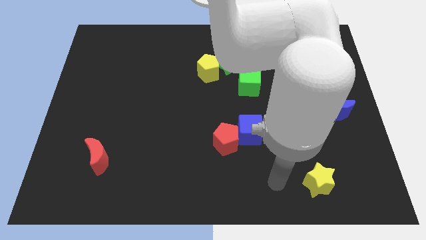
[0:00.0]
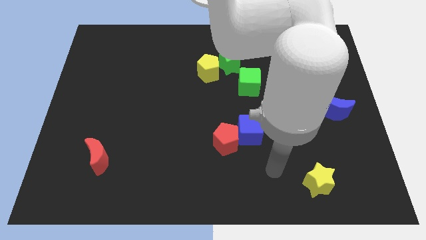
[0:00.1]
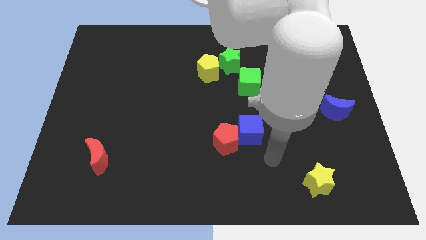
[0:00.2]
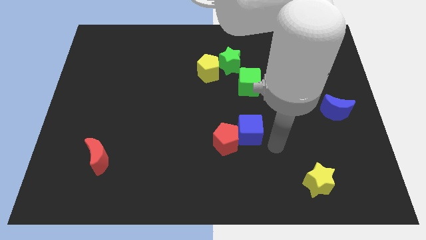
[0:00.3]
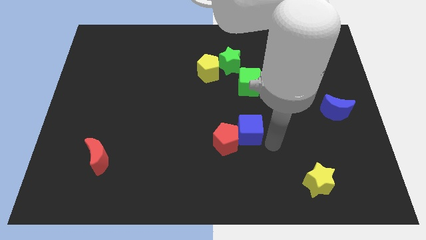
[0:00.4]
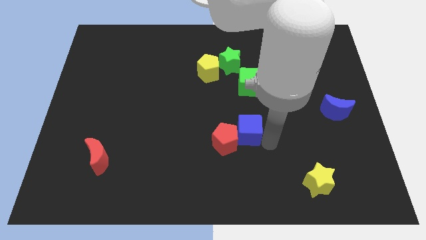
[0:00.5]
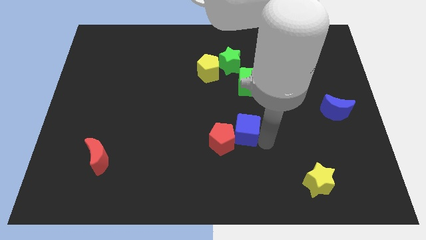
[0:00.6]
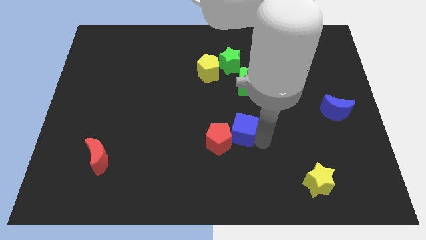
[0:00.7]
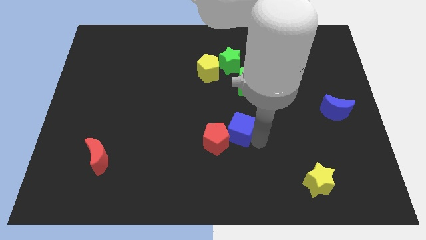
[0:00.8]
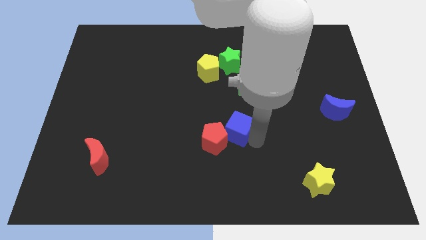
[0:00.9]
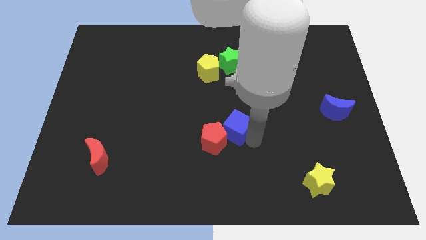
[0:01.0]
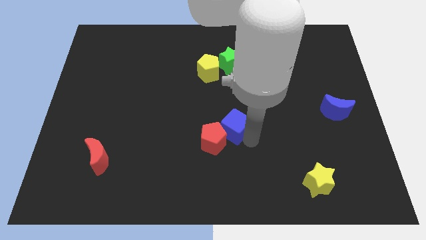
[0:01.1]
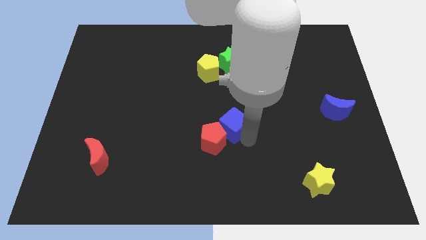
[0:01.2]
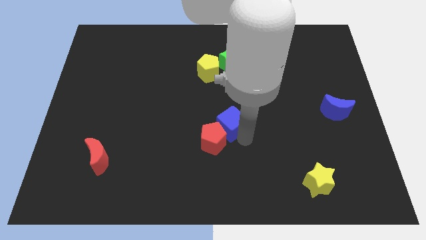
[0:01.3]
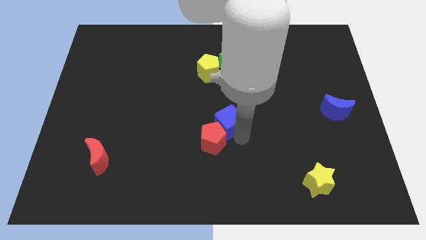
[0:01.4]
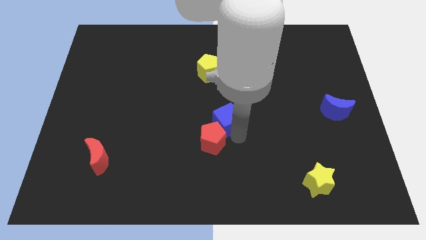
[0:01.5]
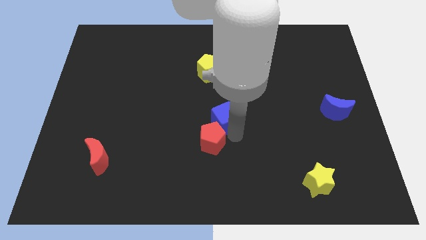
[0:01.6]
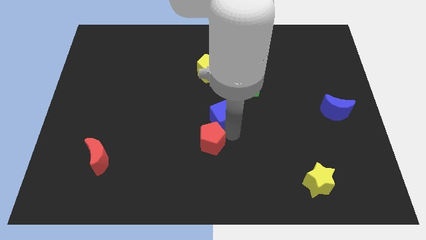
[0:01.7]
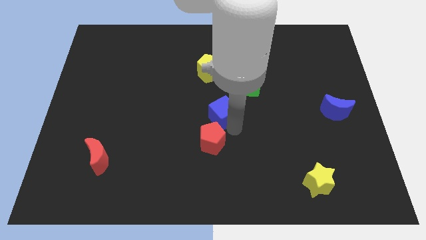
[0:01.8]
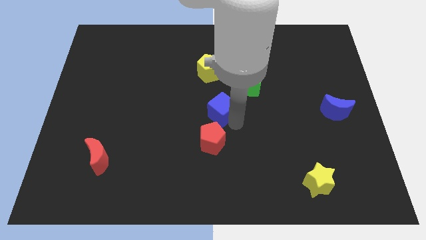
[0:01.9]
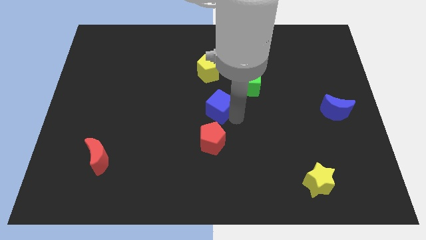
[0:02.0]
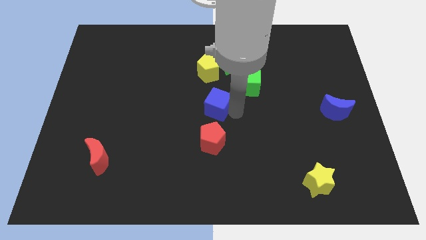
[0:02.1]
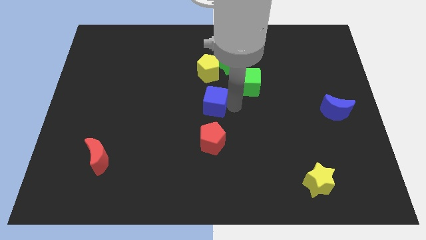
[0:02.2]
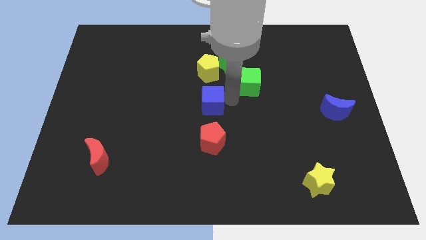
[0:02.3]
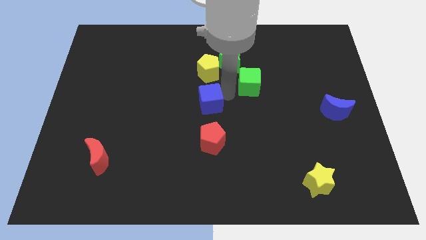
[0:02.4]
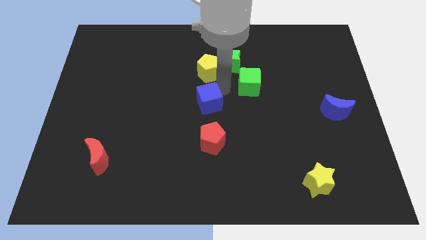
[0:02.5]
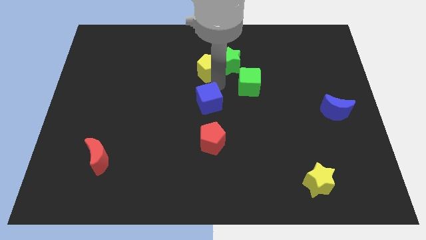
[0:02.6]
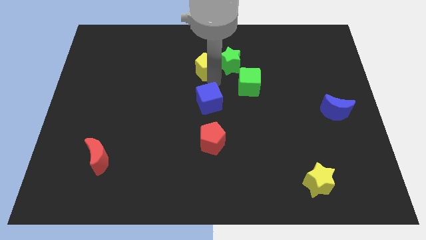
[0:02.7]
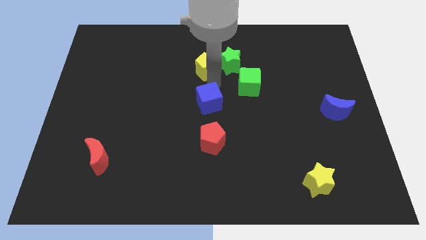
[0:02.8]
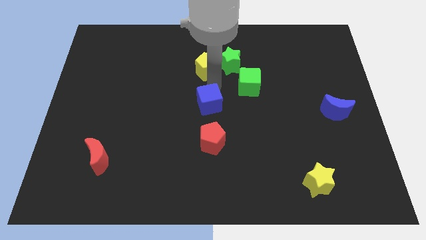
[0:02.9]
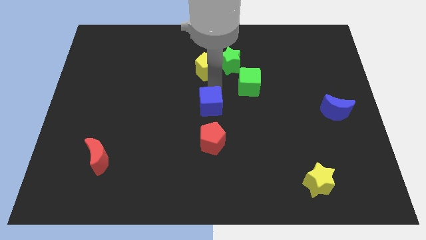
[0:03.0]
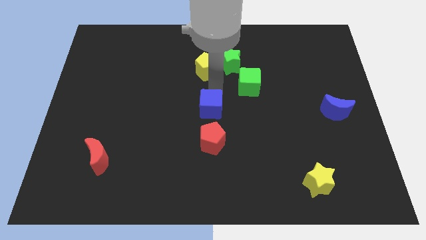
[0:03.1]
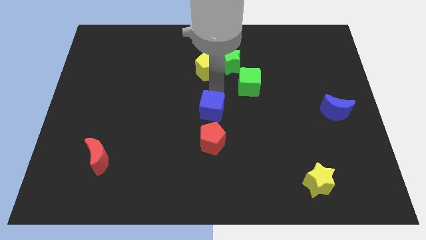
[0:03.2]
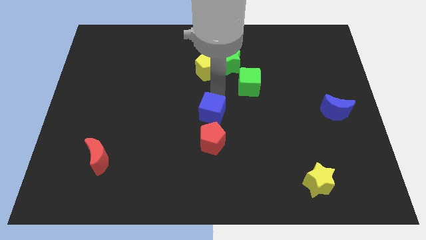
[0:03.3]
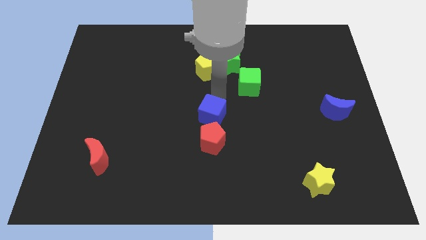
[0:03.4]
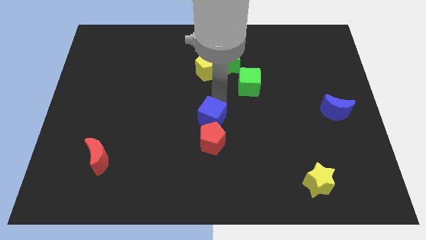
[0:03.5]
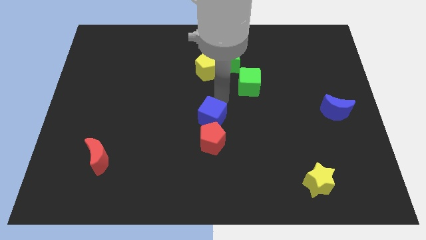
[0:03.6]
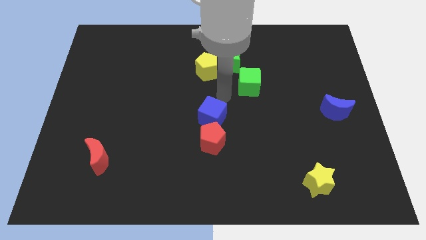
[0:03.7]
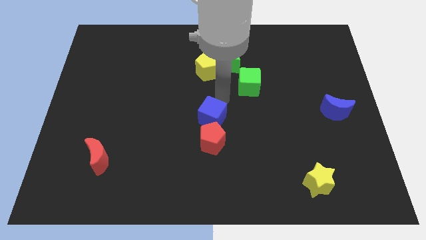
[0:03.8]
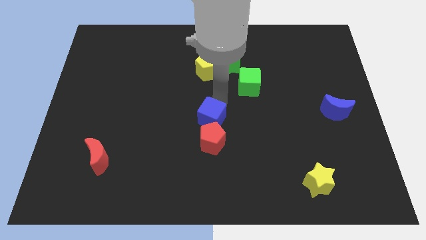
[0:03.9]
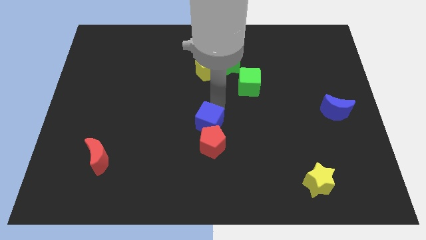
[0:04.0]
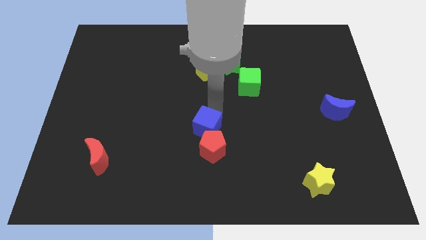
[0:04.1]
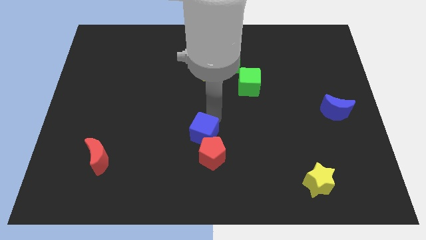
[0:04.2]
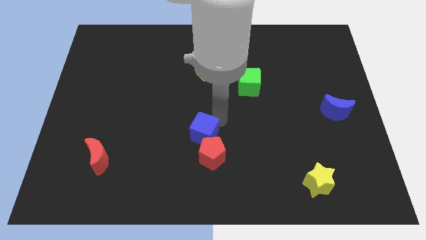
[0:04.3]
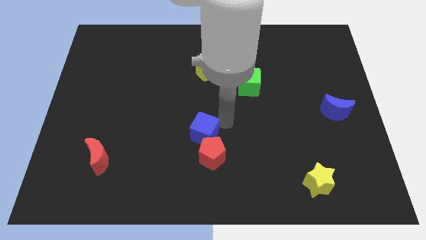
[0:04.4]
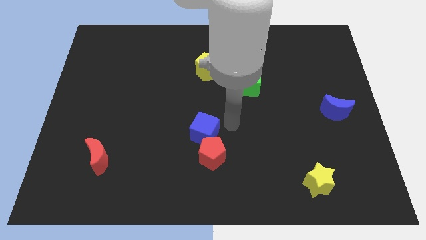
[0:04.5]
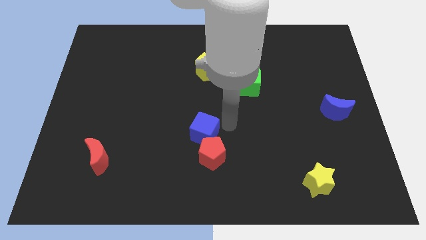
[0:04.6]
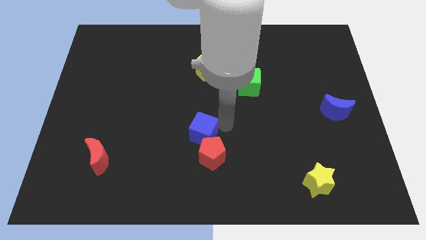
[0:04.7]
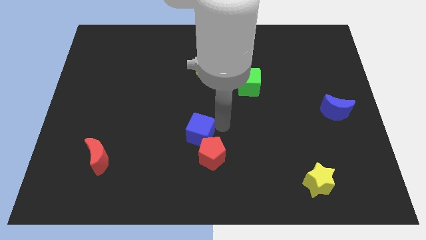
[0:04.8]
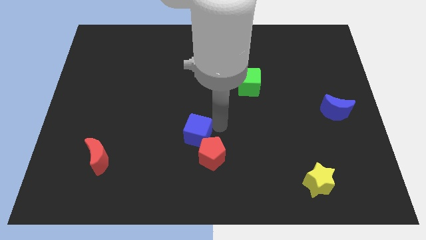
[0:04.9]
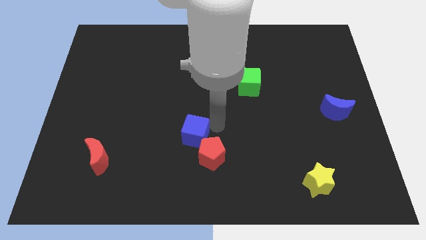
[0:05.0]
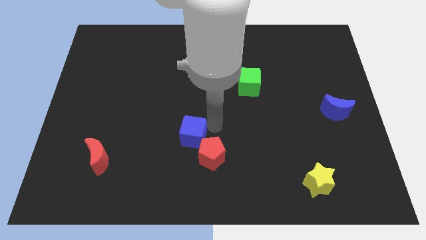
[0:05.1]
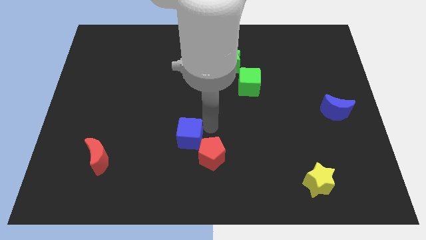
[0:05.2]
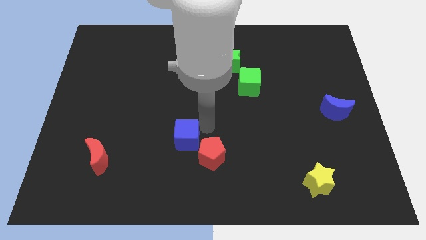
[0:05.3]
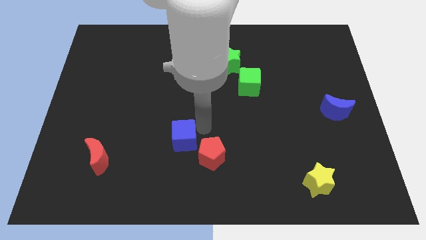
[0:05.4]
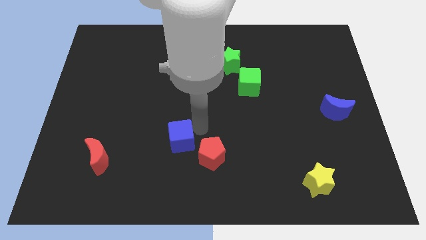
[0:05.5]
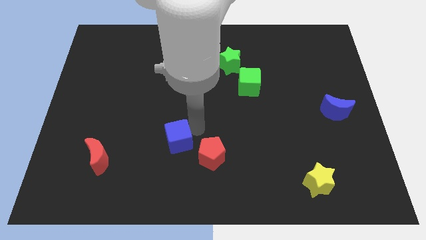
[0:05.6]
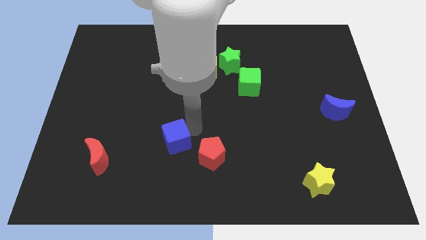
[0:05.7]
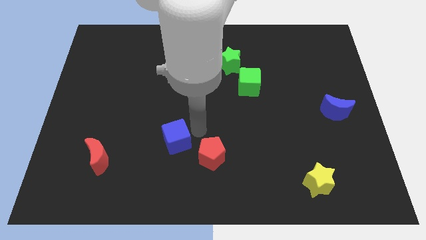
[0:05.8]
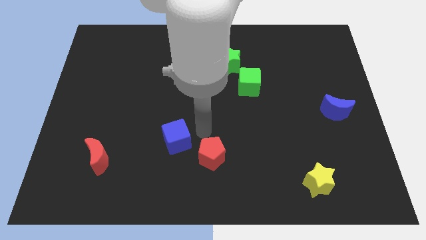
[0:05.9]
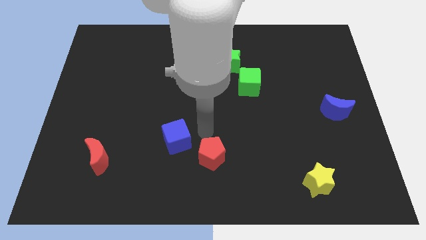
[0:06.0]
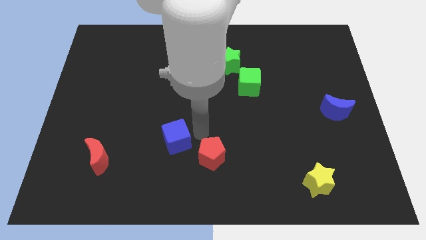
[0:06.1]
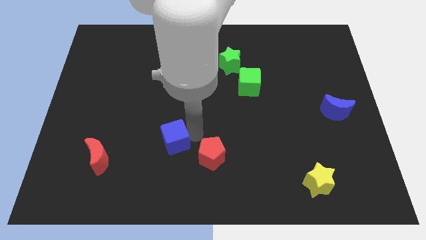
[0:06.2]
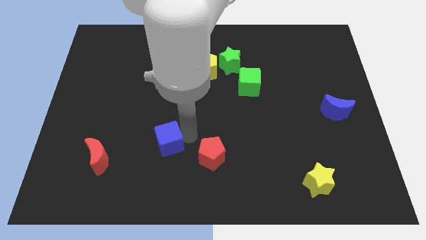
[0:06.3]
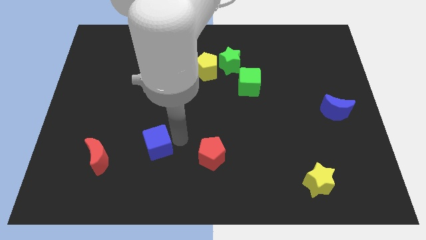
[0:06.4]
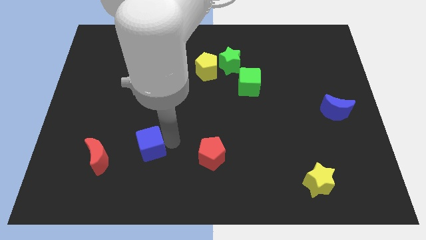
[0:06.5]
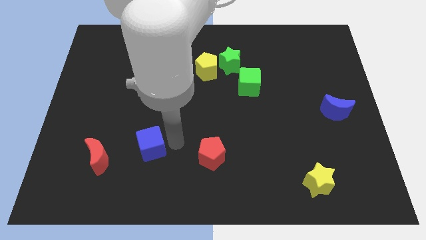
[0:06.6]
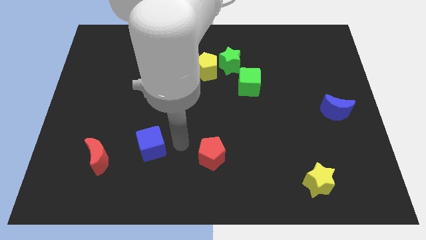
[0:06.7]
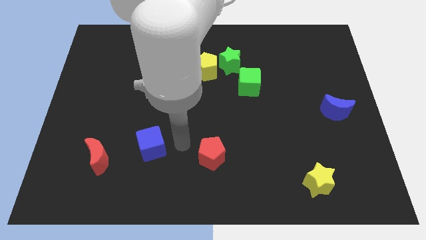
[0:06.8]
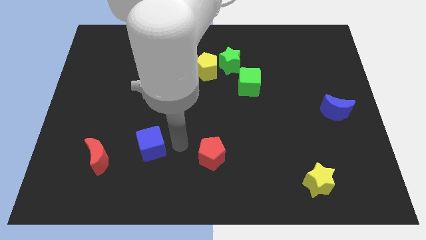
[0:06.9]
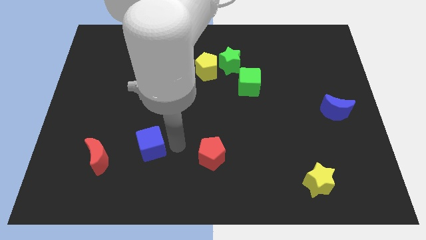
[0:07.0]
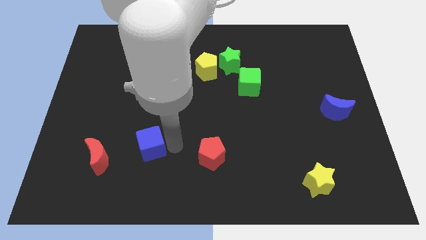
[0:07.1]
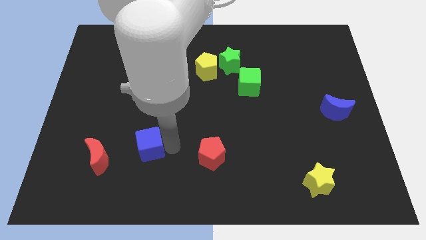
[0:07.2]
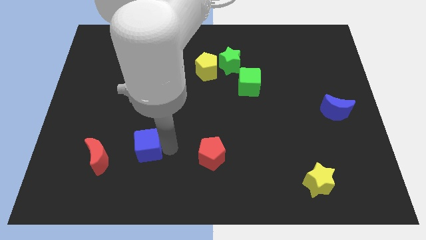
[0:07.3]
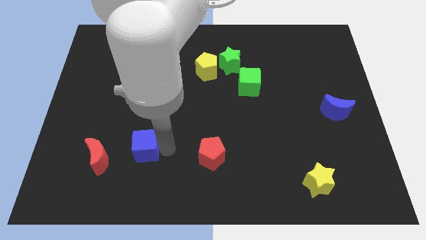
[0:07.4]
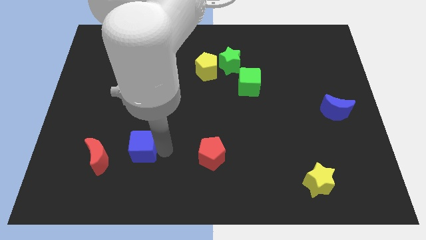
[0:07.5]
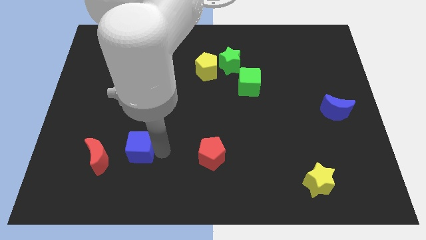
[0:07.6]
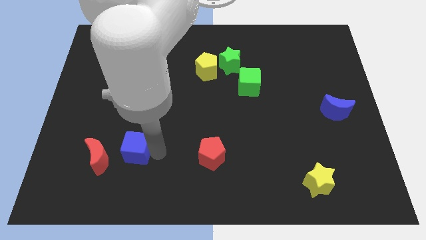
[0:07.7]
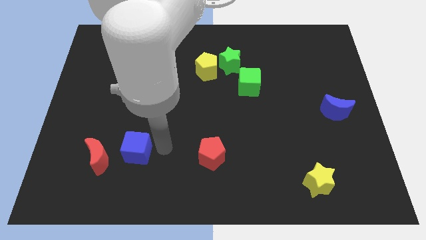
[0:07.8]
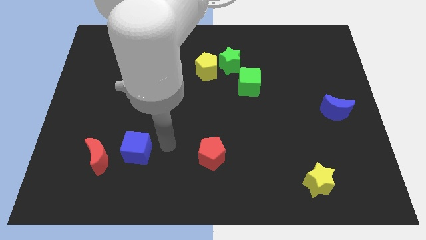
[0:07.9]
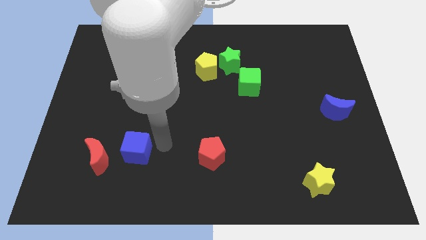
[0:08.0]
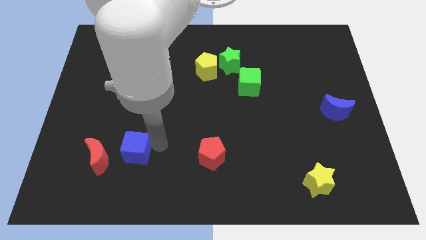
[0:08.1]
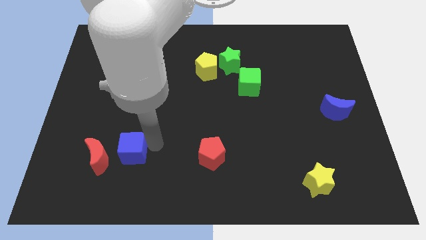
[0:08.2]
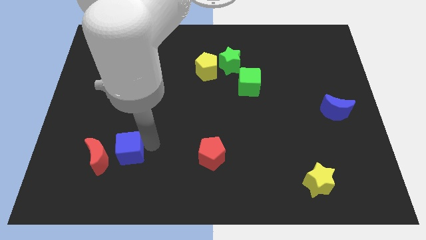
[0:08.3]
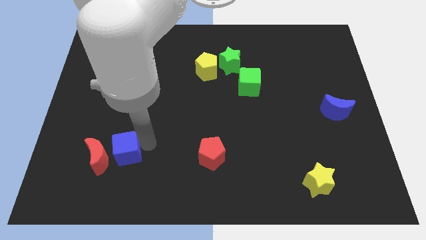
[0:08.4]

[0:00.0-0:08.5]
move the blue cube to the red moon

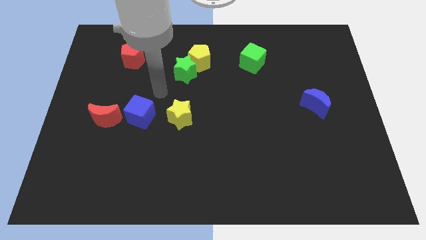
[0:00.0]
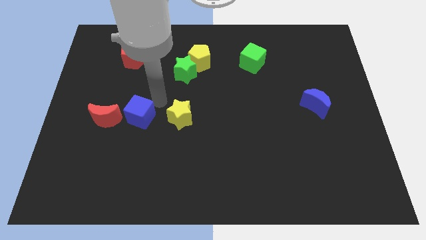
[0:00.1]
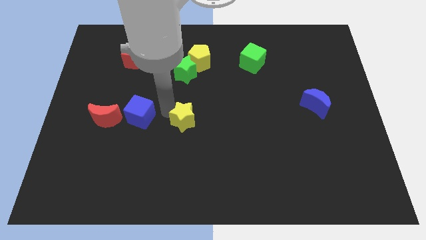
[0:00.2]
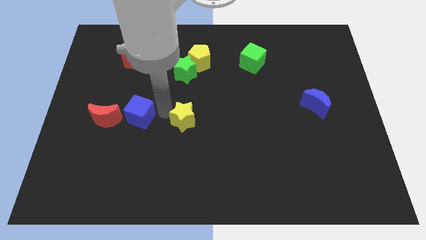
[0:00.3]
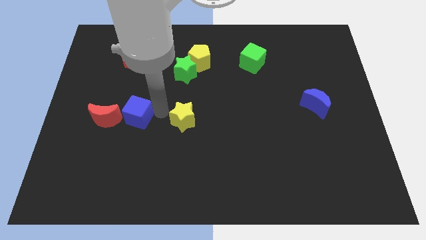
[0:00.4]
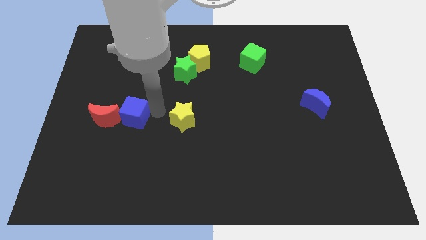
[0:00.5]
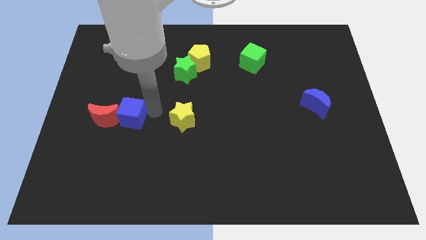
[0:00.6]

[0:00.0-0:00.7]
slide the blue cube towards the red moon
